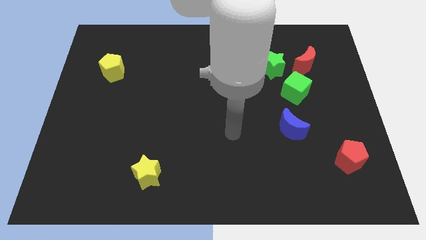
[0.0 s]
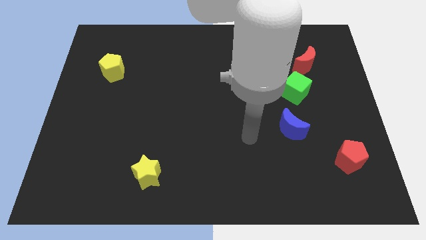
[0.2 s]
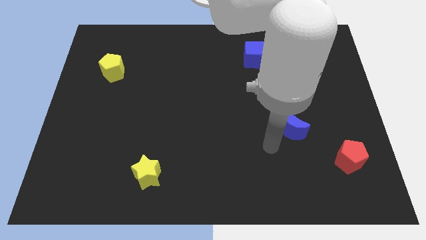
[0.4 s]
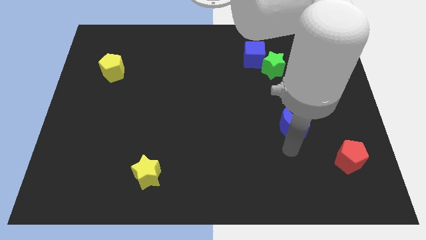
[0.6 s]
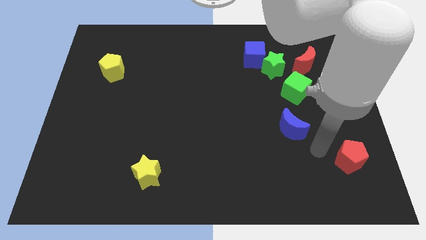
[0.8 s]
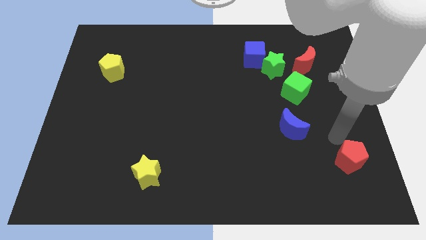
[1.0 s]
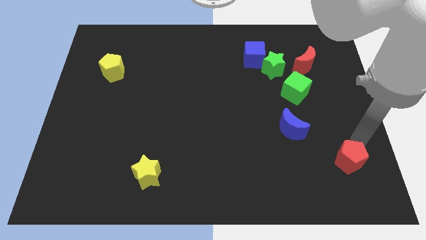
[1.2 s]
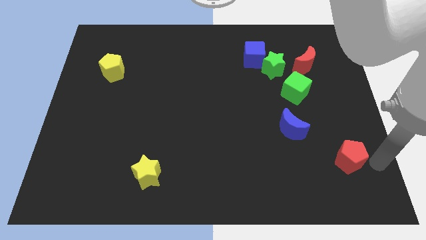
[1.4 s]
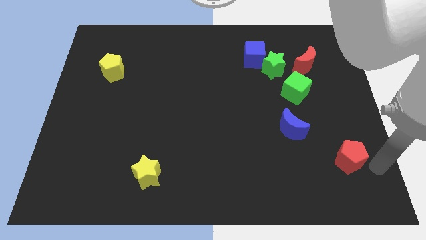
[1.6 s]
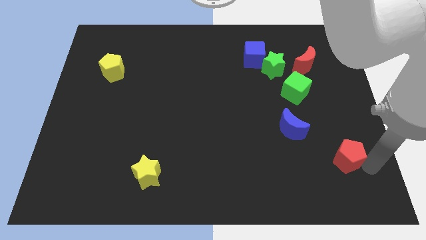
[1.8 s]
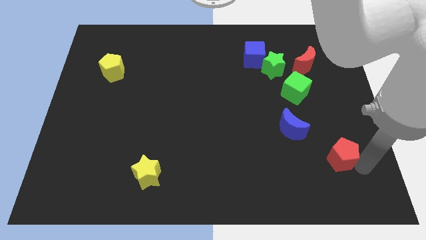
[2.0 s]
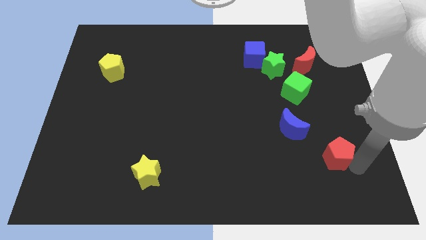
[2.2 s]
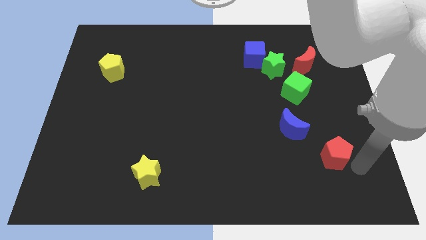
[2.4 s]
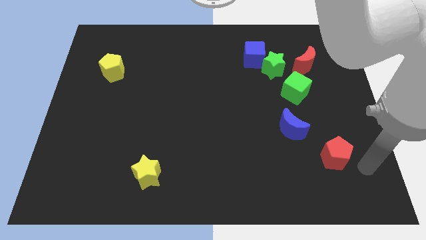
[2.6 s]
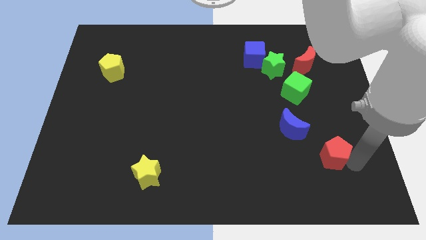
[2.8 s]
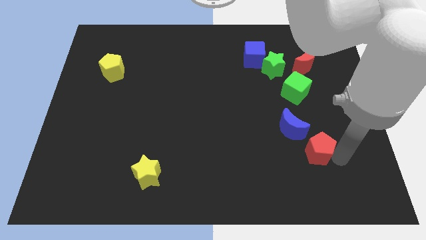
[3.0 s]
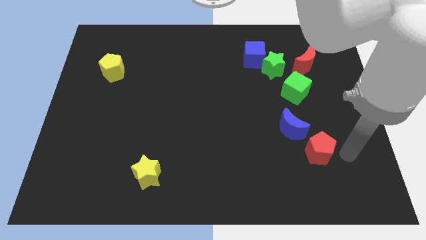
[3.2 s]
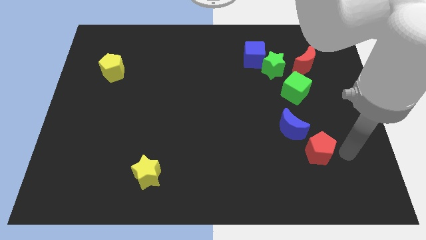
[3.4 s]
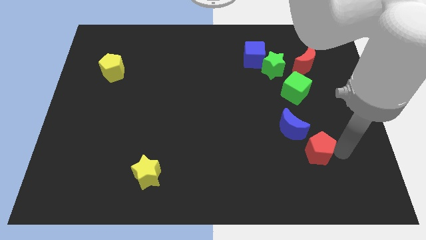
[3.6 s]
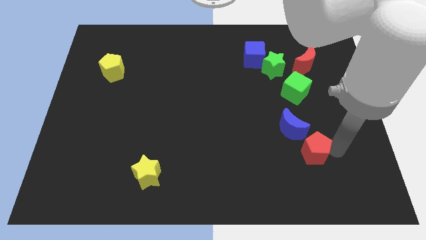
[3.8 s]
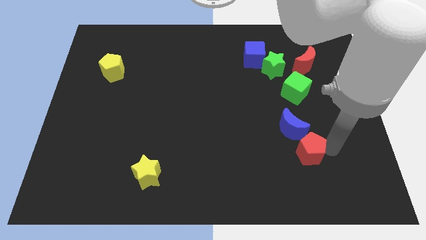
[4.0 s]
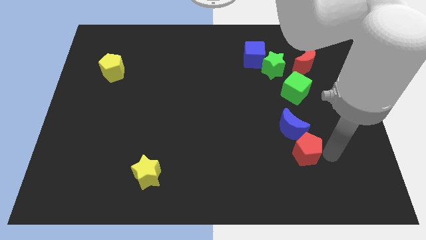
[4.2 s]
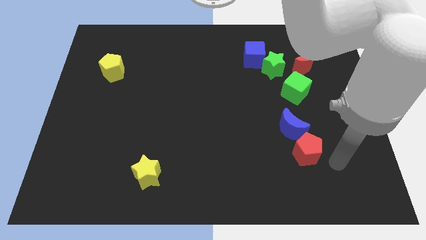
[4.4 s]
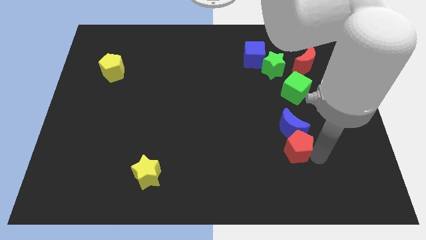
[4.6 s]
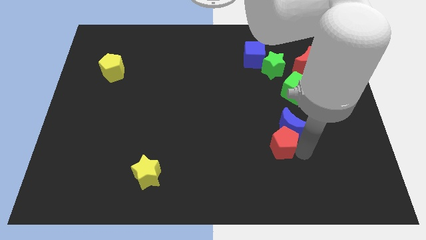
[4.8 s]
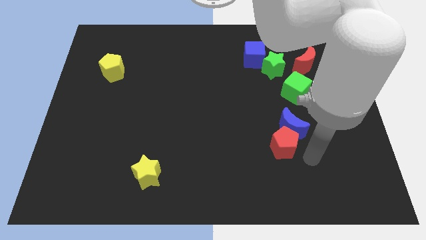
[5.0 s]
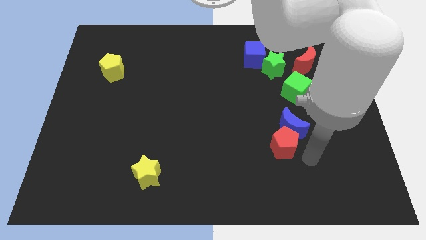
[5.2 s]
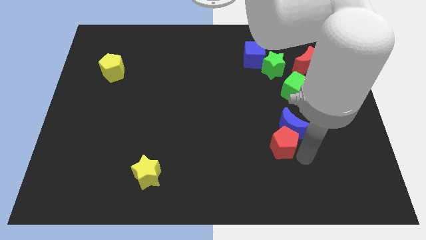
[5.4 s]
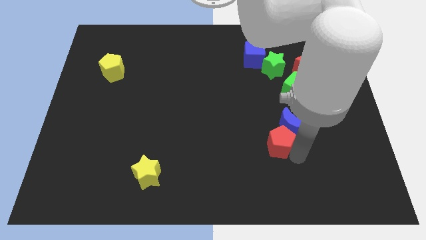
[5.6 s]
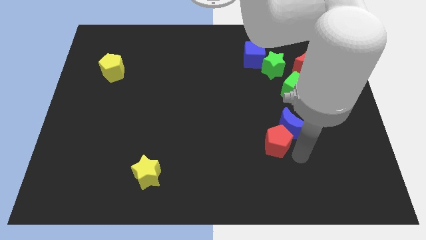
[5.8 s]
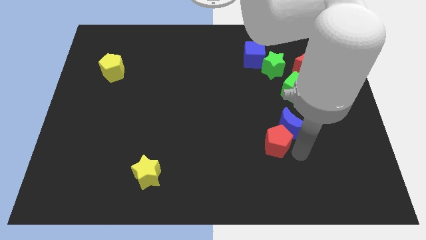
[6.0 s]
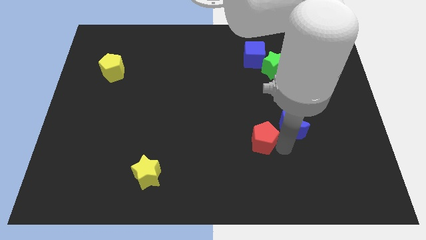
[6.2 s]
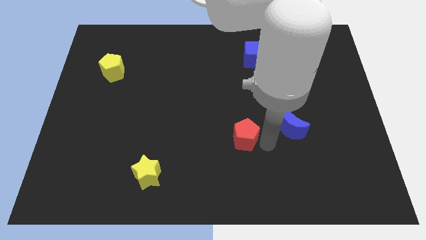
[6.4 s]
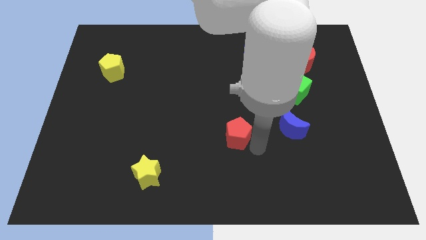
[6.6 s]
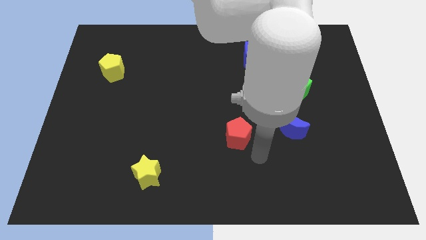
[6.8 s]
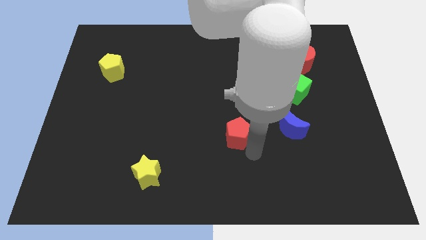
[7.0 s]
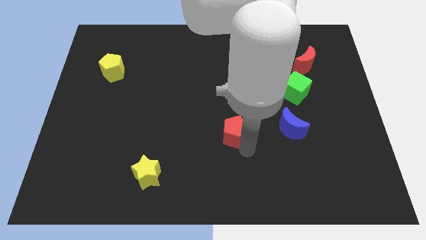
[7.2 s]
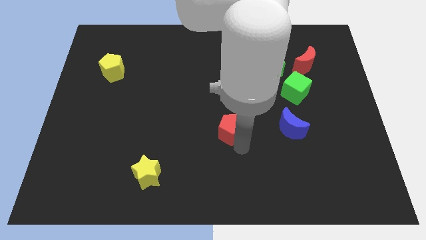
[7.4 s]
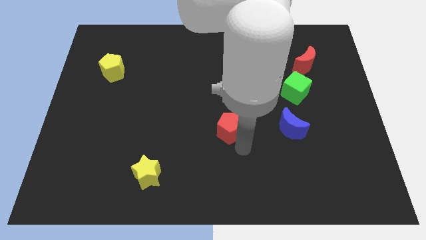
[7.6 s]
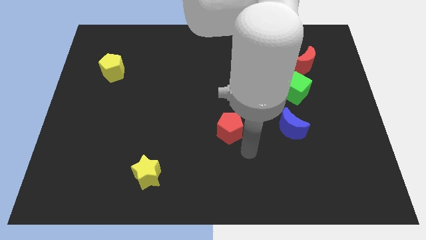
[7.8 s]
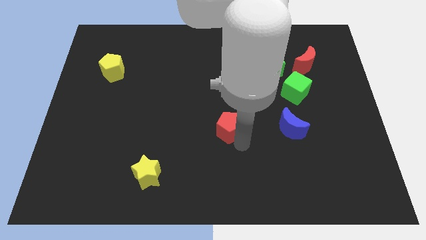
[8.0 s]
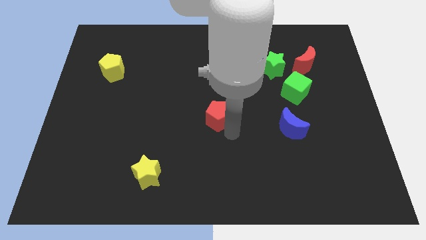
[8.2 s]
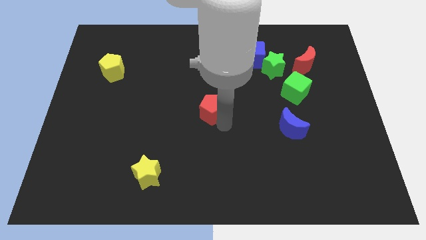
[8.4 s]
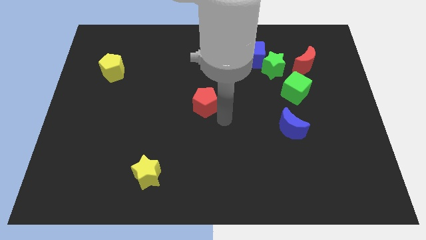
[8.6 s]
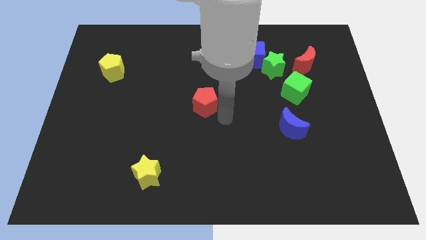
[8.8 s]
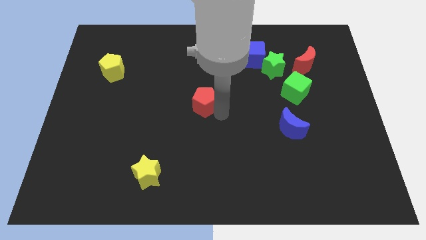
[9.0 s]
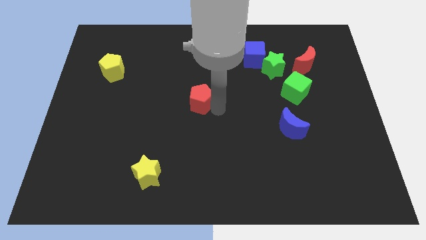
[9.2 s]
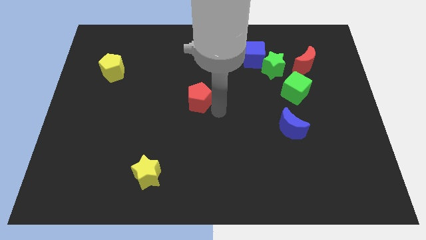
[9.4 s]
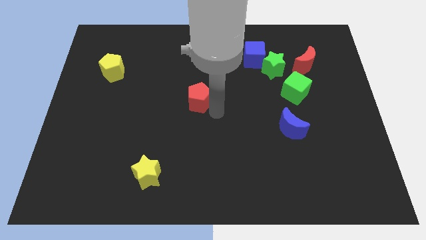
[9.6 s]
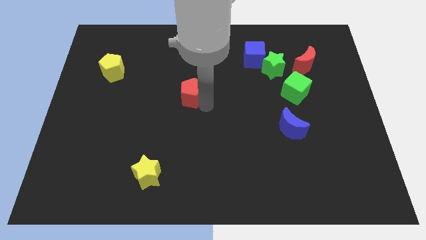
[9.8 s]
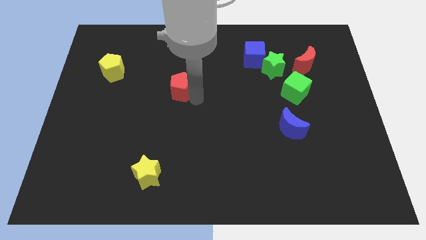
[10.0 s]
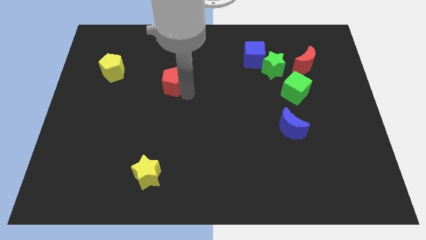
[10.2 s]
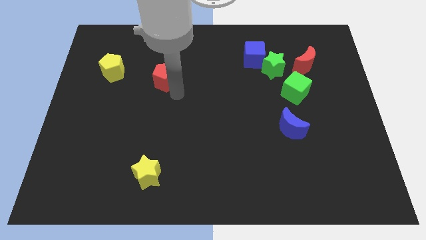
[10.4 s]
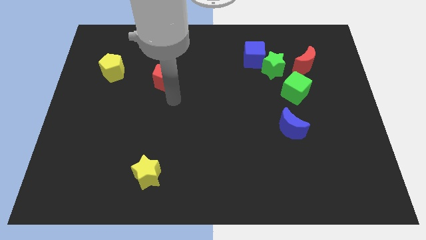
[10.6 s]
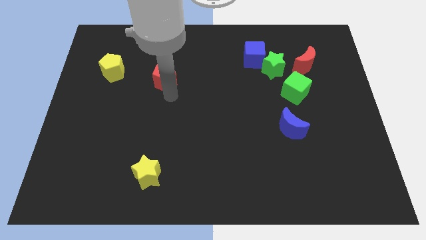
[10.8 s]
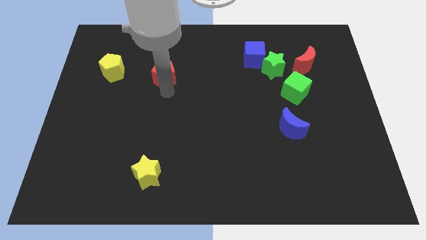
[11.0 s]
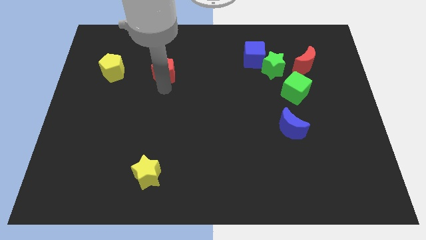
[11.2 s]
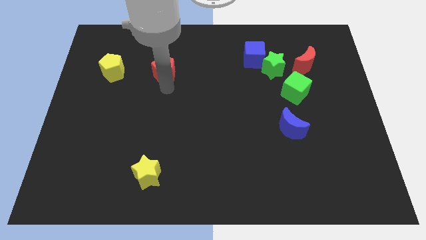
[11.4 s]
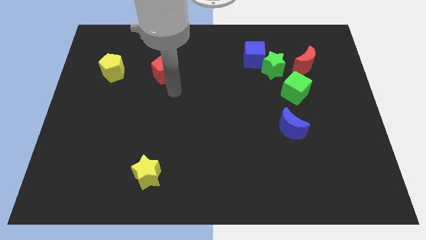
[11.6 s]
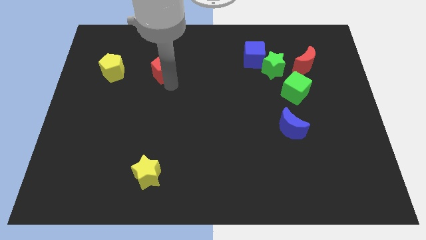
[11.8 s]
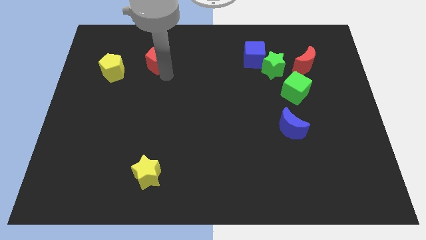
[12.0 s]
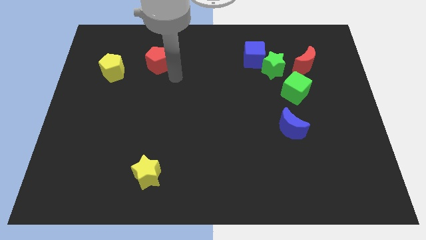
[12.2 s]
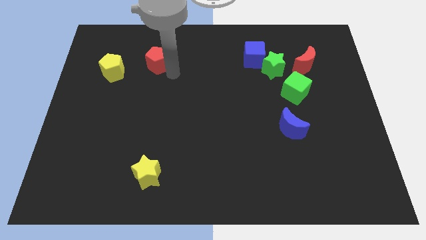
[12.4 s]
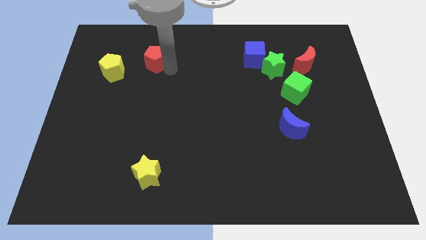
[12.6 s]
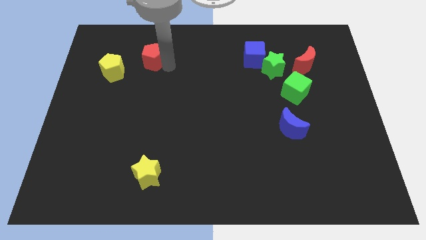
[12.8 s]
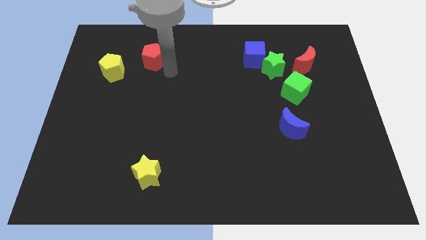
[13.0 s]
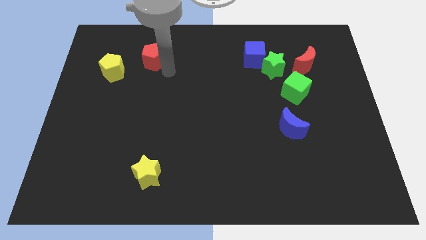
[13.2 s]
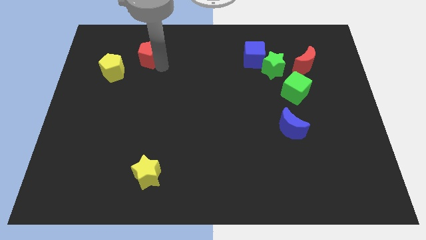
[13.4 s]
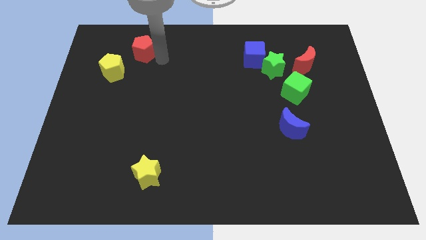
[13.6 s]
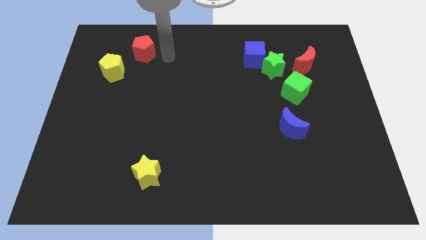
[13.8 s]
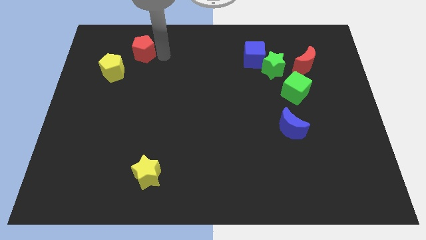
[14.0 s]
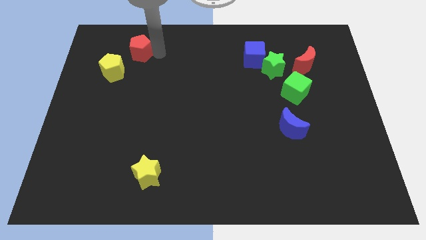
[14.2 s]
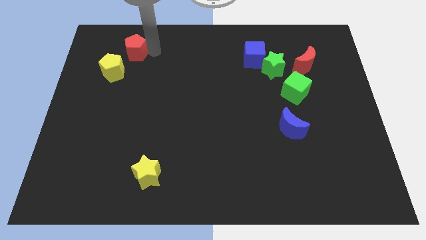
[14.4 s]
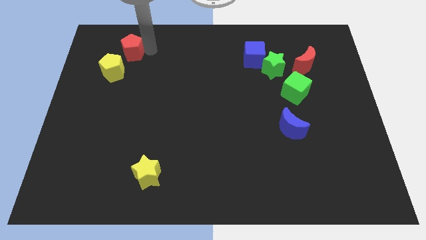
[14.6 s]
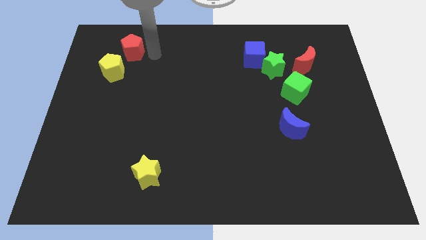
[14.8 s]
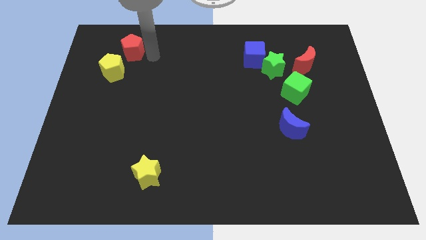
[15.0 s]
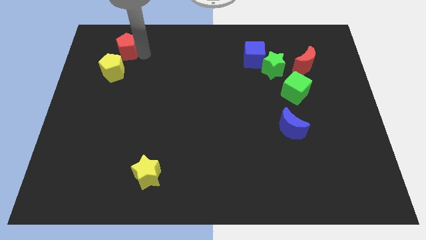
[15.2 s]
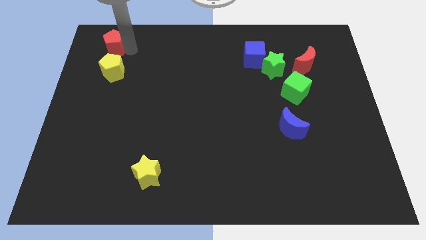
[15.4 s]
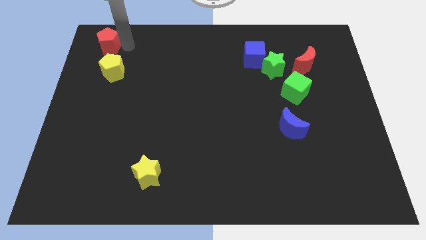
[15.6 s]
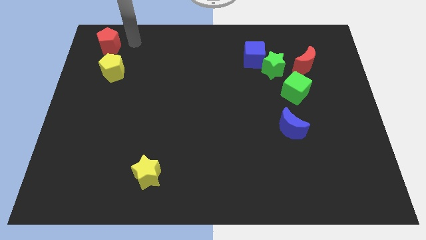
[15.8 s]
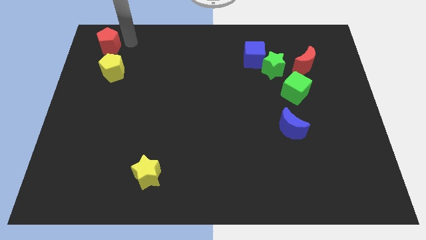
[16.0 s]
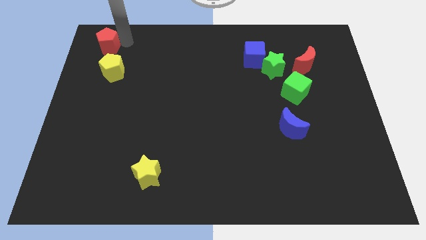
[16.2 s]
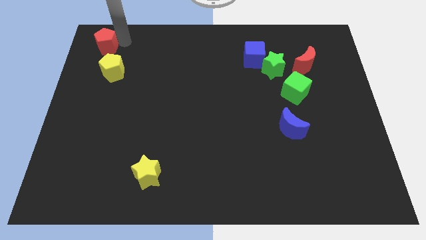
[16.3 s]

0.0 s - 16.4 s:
move the red pentagon to the top left corner
